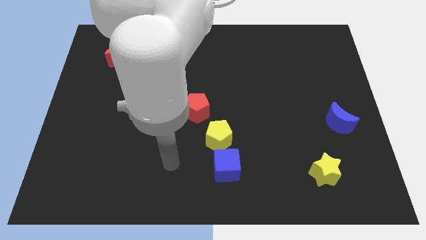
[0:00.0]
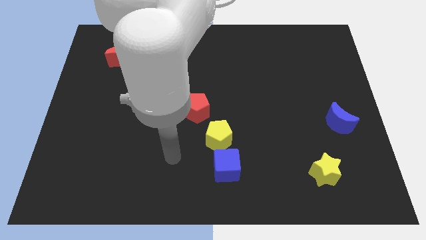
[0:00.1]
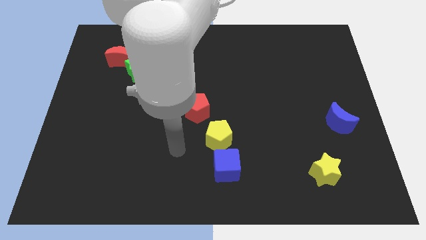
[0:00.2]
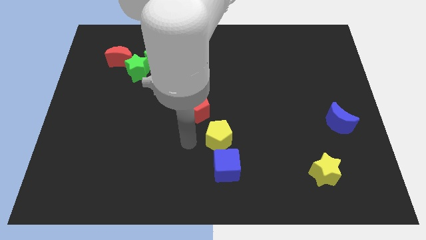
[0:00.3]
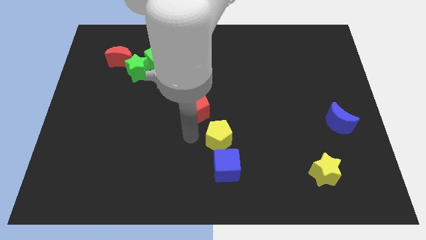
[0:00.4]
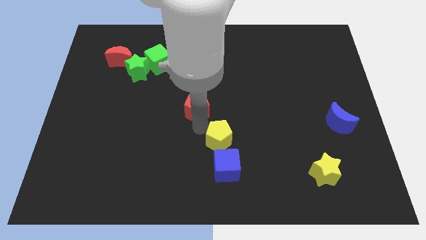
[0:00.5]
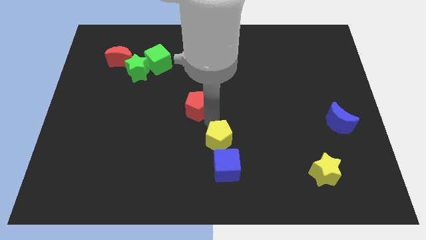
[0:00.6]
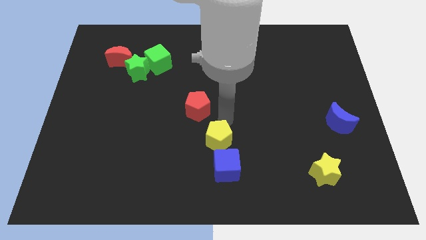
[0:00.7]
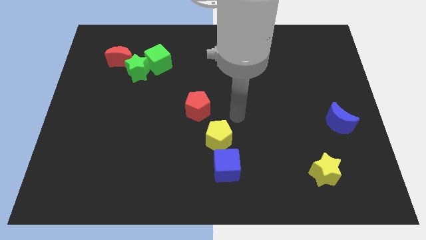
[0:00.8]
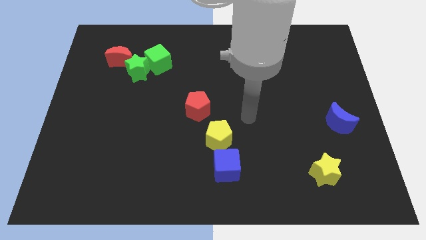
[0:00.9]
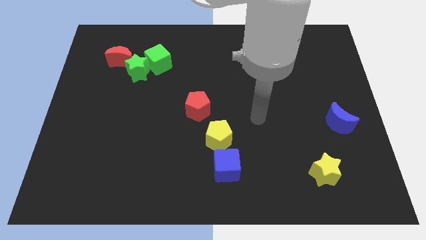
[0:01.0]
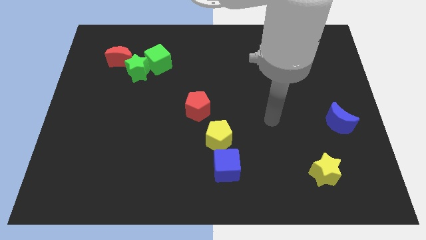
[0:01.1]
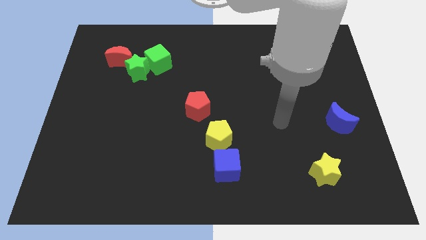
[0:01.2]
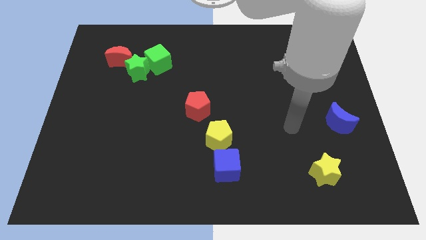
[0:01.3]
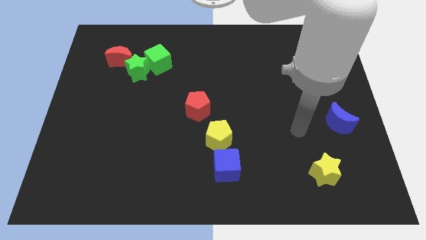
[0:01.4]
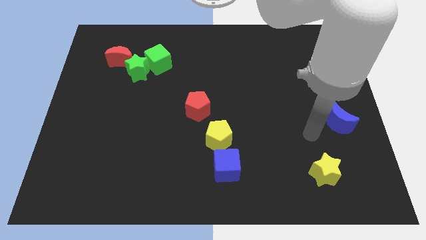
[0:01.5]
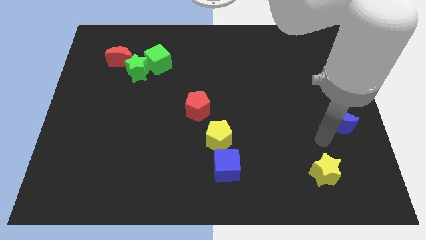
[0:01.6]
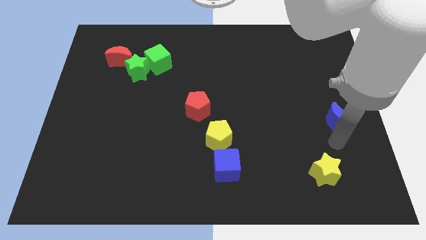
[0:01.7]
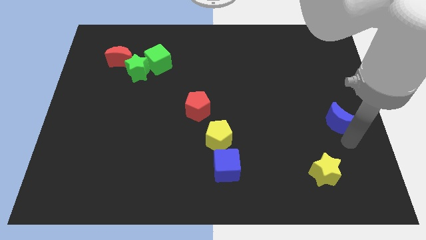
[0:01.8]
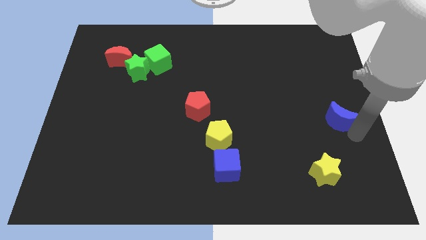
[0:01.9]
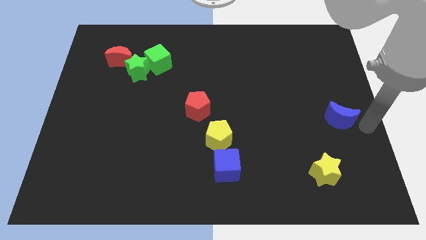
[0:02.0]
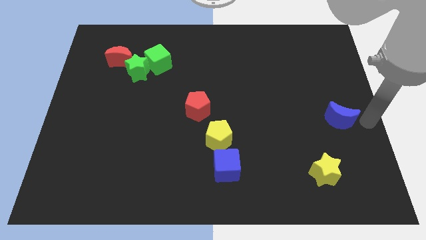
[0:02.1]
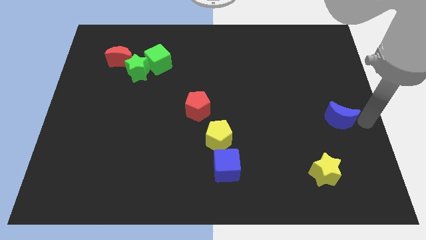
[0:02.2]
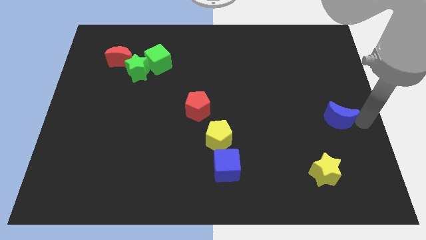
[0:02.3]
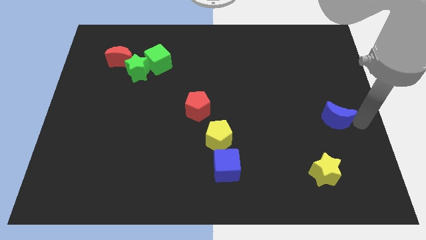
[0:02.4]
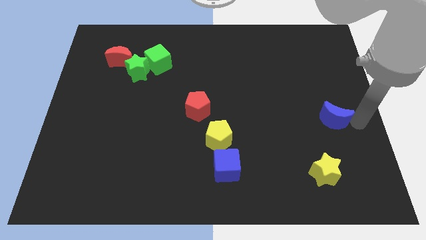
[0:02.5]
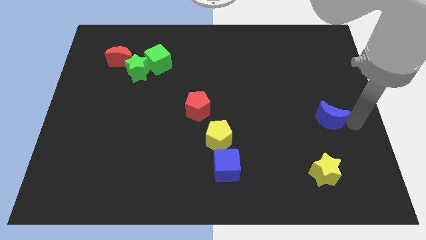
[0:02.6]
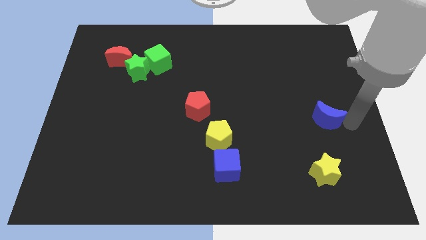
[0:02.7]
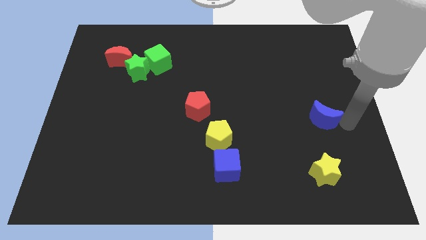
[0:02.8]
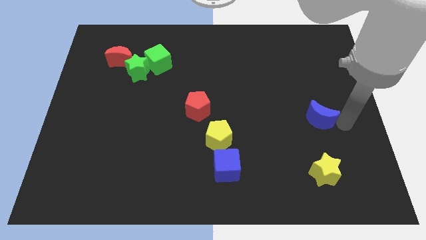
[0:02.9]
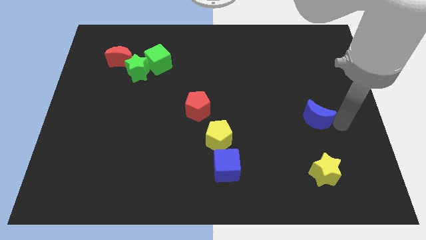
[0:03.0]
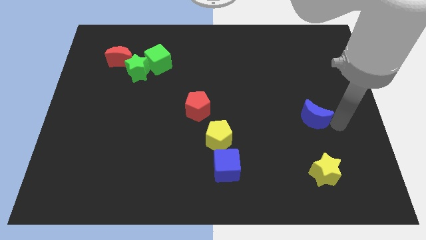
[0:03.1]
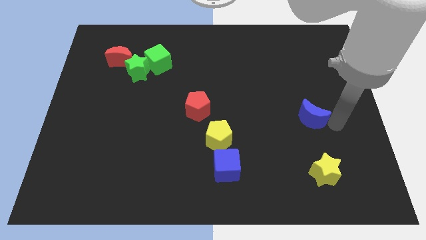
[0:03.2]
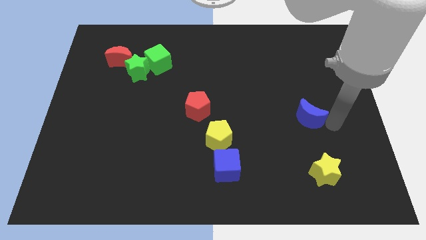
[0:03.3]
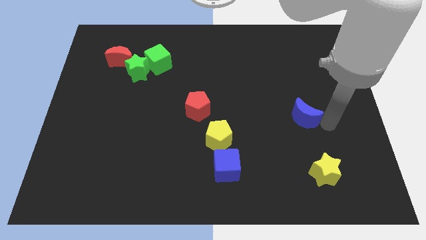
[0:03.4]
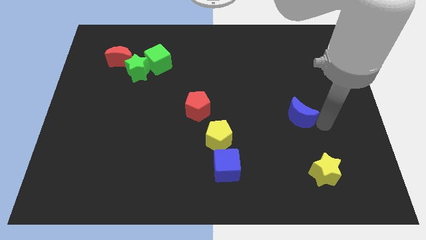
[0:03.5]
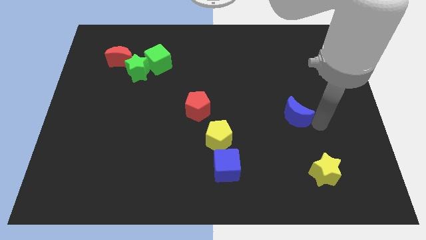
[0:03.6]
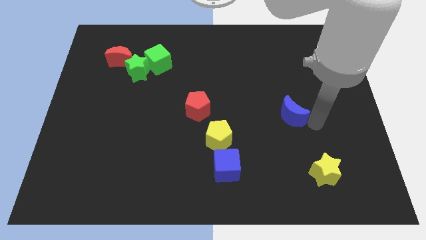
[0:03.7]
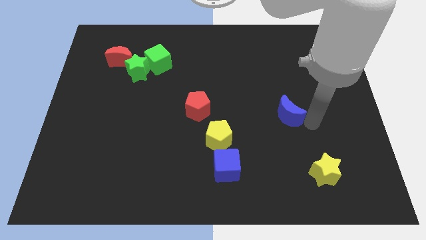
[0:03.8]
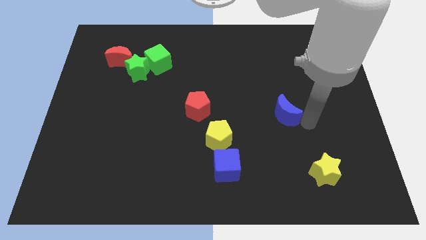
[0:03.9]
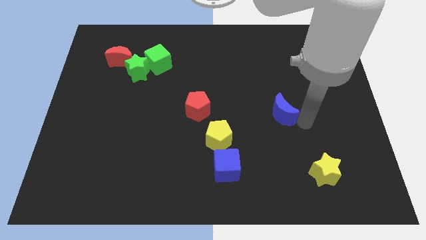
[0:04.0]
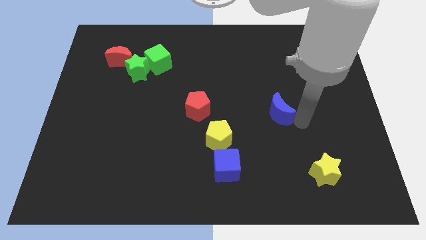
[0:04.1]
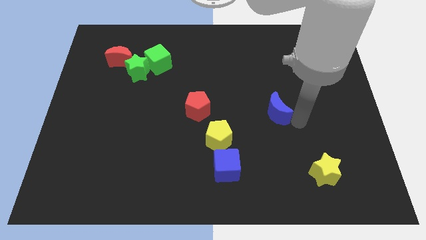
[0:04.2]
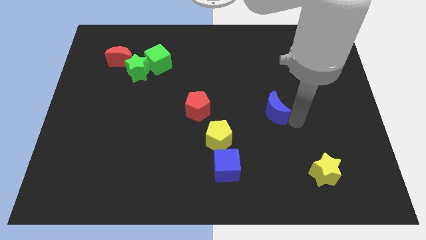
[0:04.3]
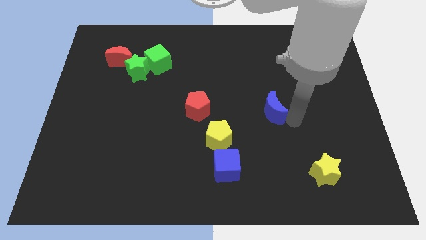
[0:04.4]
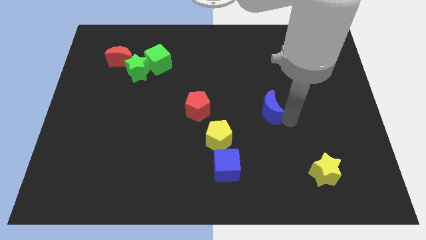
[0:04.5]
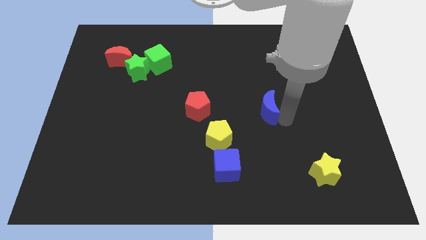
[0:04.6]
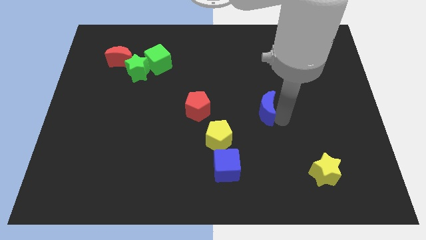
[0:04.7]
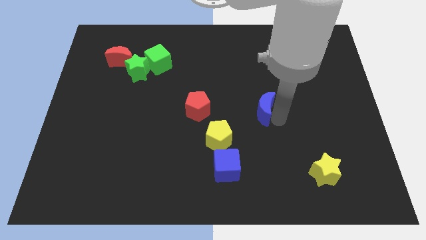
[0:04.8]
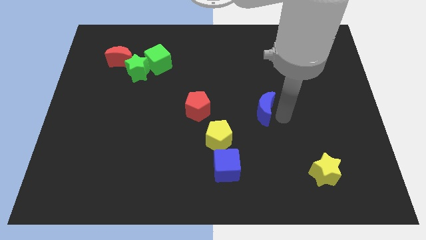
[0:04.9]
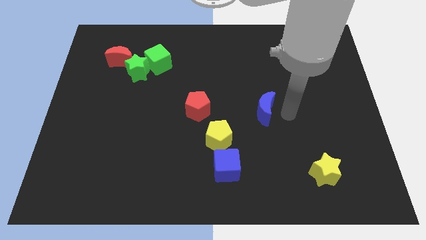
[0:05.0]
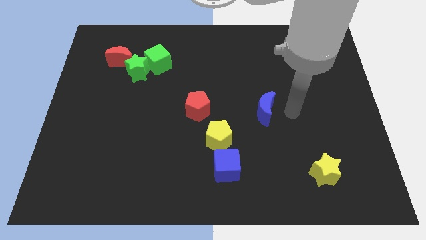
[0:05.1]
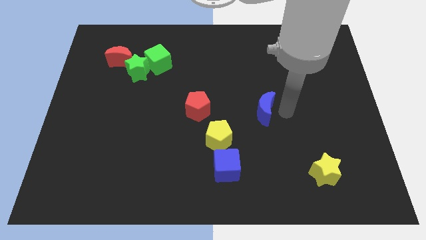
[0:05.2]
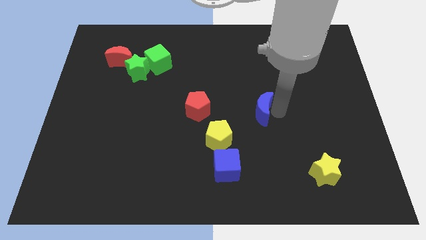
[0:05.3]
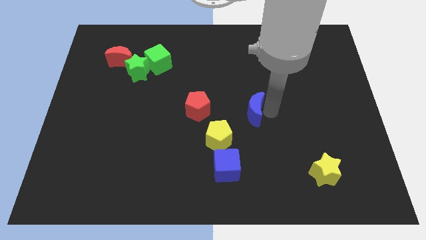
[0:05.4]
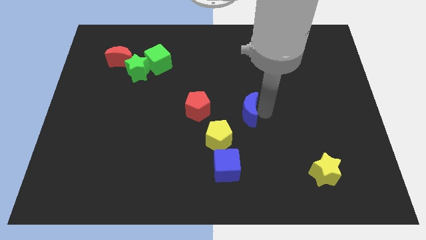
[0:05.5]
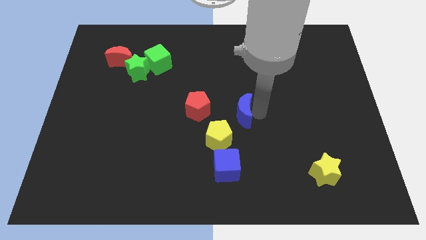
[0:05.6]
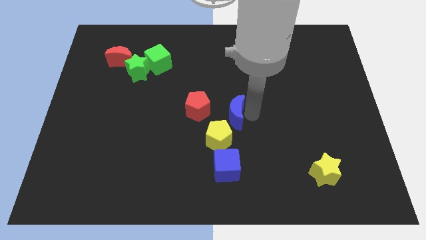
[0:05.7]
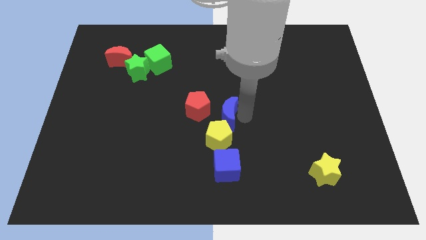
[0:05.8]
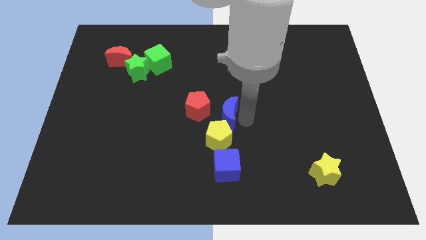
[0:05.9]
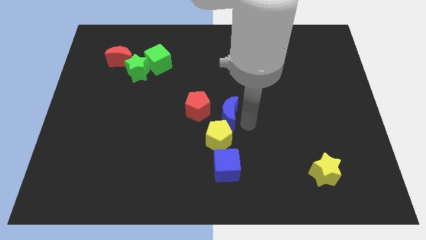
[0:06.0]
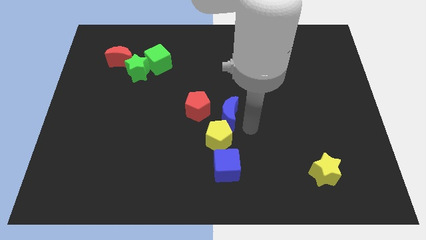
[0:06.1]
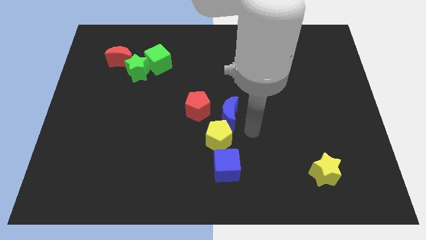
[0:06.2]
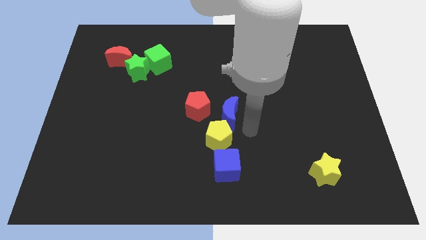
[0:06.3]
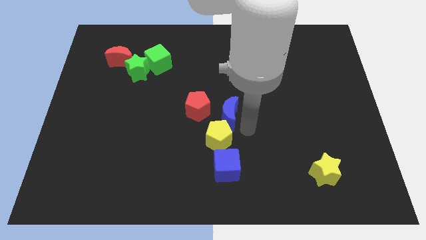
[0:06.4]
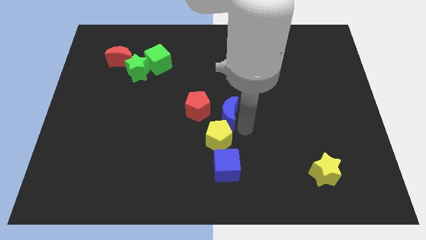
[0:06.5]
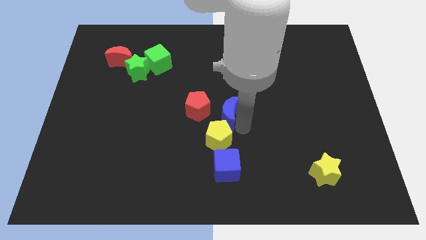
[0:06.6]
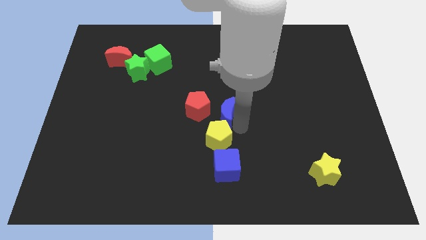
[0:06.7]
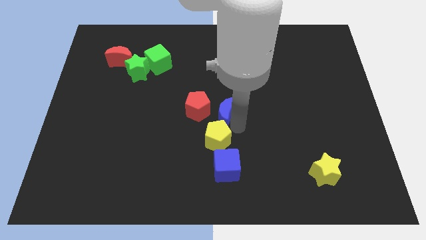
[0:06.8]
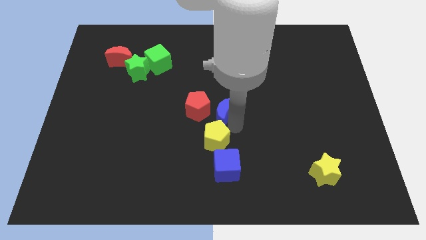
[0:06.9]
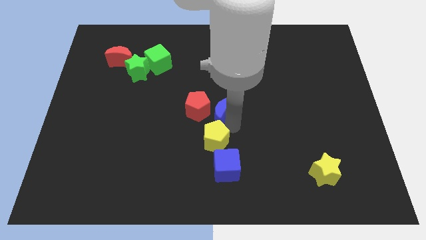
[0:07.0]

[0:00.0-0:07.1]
push the blue moon close to the red pentagon

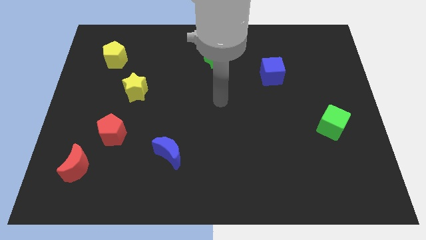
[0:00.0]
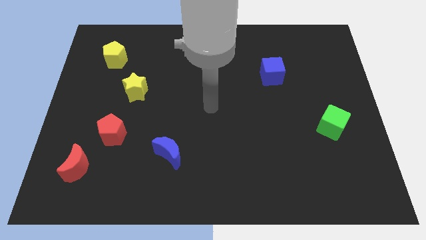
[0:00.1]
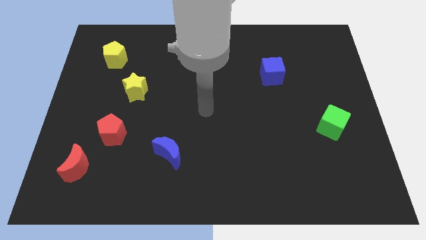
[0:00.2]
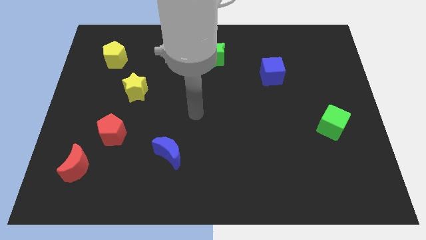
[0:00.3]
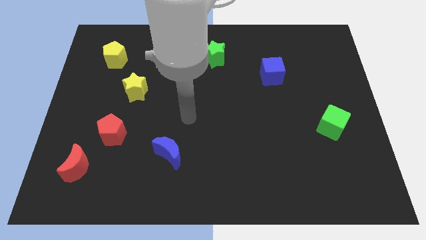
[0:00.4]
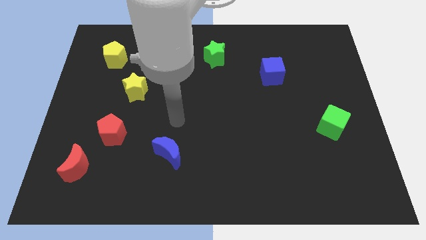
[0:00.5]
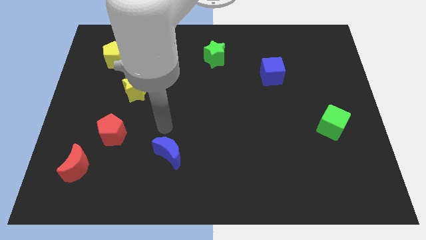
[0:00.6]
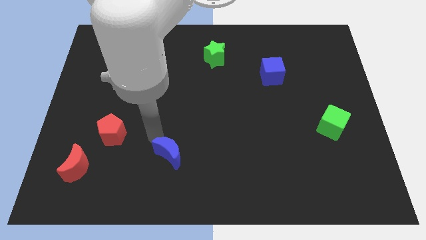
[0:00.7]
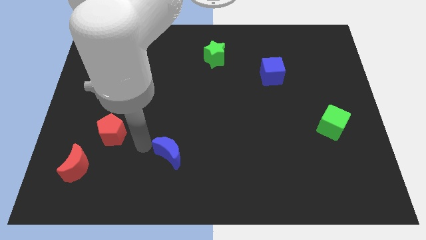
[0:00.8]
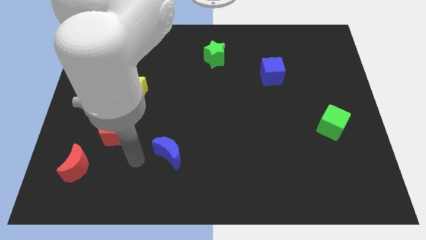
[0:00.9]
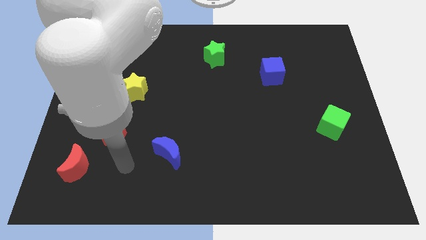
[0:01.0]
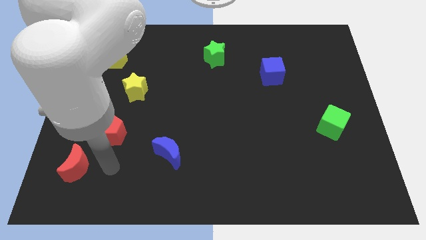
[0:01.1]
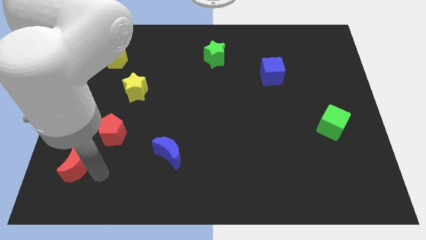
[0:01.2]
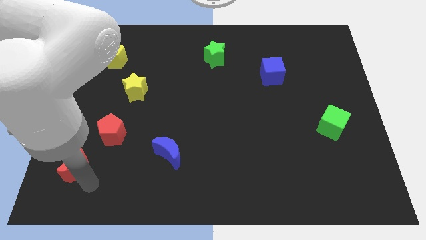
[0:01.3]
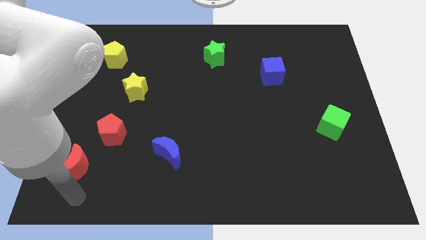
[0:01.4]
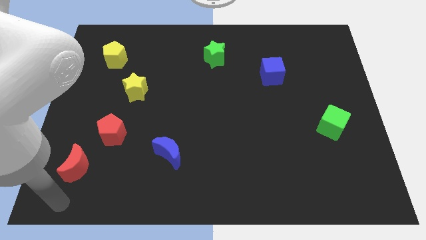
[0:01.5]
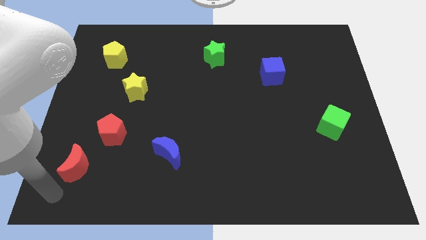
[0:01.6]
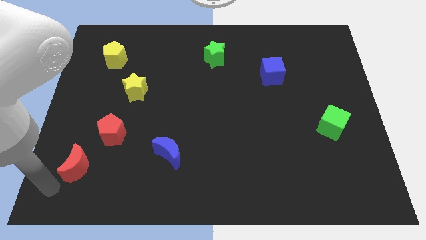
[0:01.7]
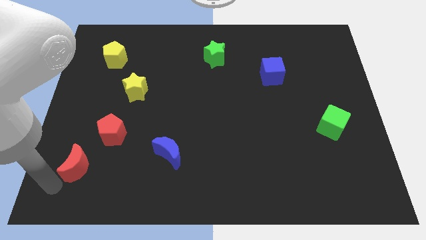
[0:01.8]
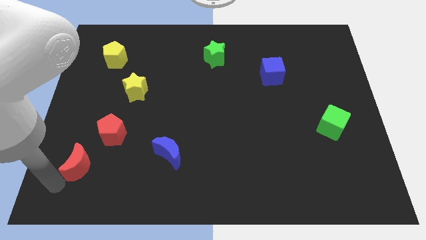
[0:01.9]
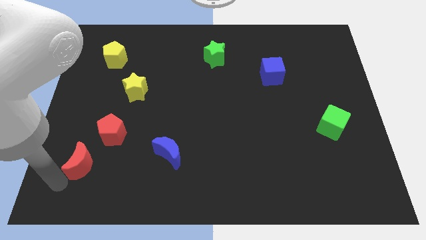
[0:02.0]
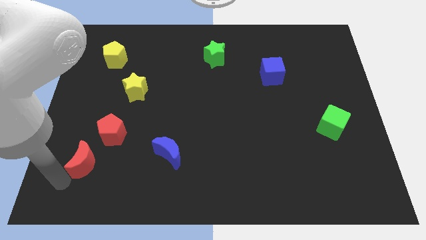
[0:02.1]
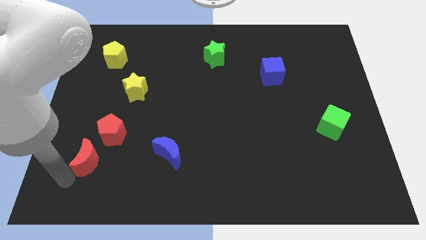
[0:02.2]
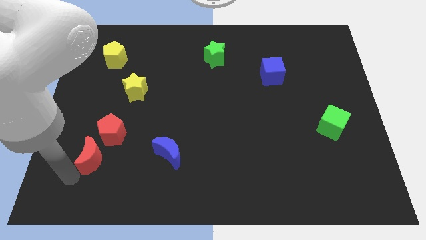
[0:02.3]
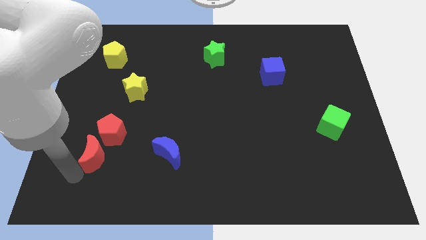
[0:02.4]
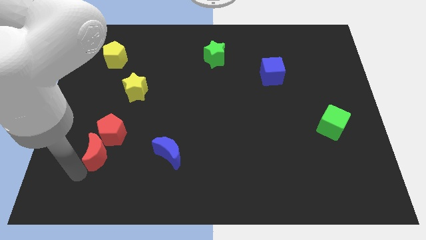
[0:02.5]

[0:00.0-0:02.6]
move the red moon towards the red pentagon
